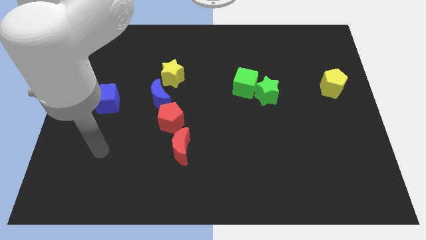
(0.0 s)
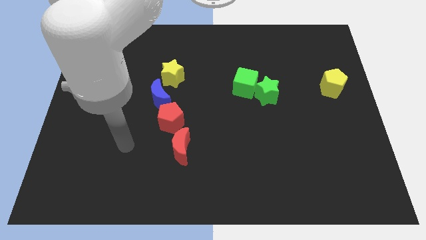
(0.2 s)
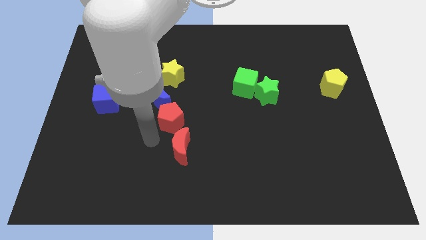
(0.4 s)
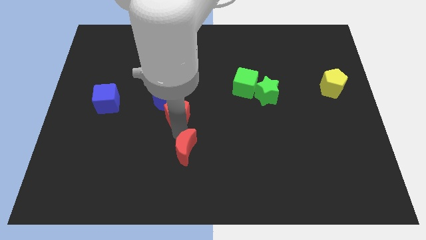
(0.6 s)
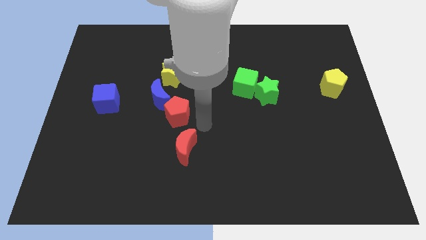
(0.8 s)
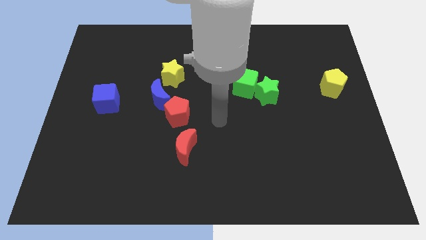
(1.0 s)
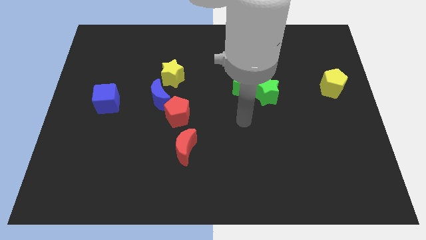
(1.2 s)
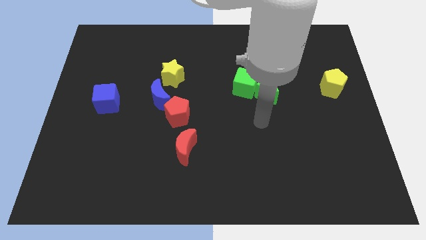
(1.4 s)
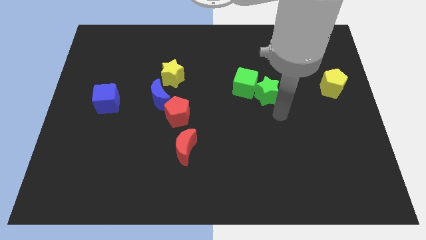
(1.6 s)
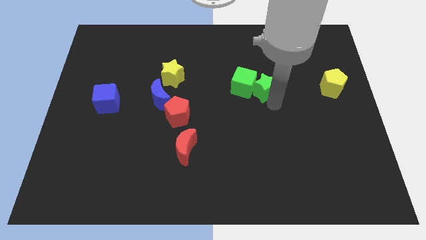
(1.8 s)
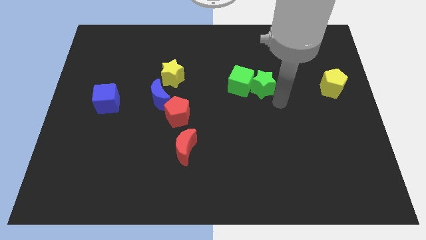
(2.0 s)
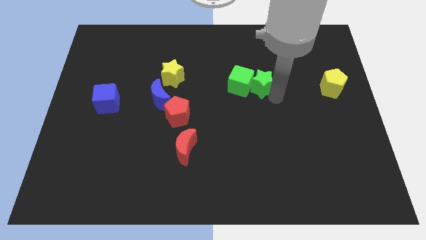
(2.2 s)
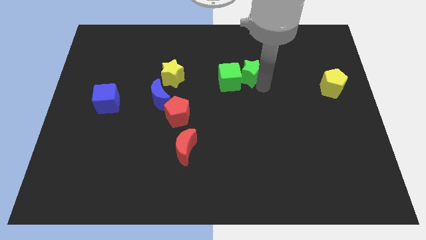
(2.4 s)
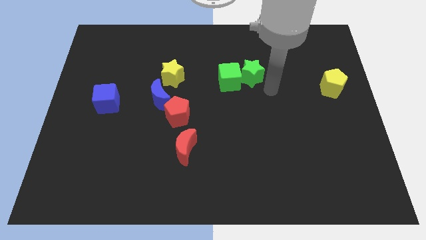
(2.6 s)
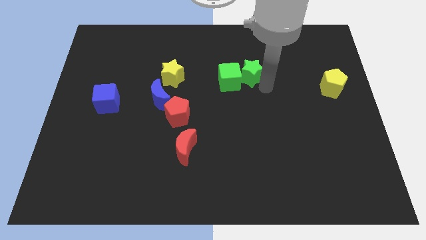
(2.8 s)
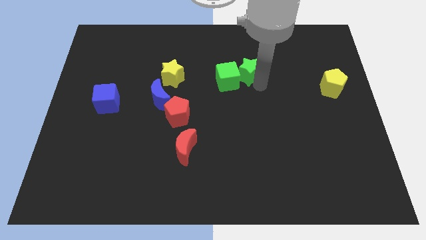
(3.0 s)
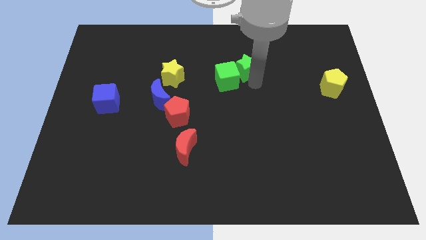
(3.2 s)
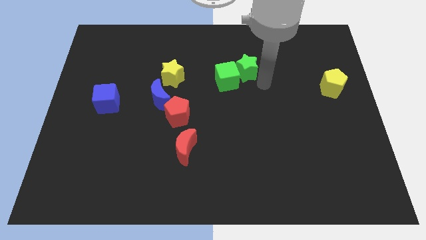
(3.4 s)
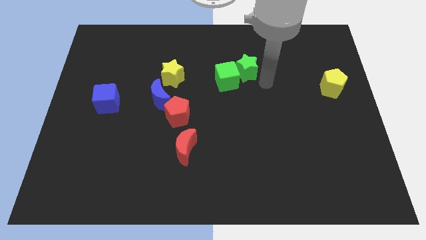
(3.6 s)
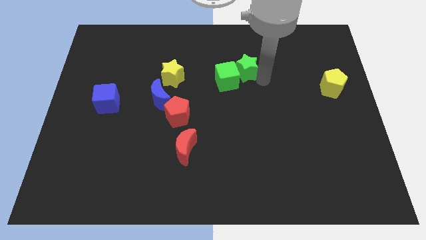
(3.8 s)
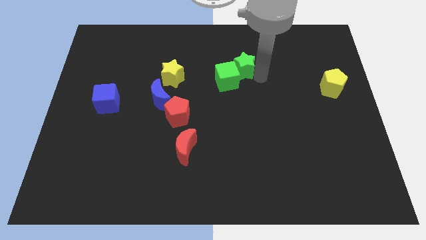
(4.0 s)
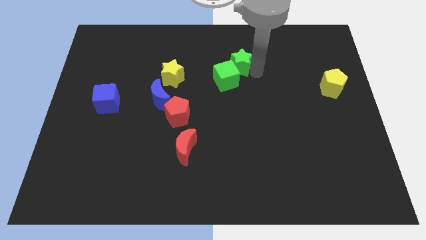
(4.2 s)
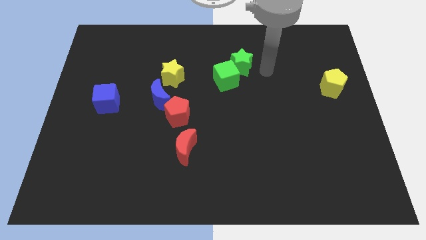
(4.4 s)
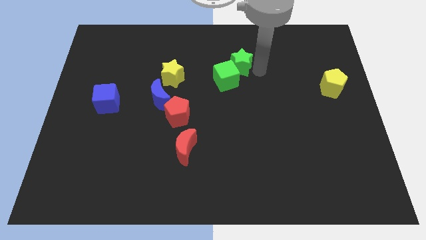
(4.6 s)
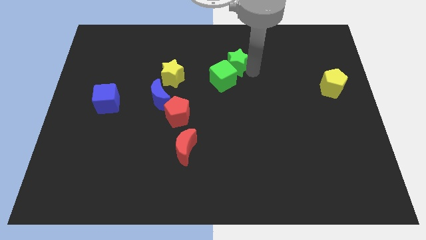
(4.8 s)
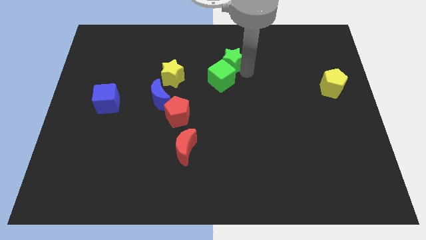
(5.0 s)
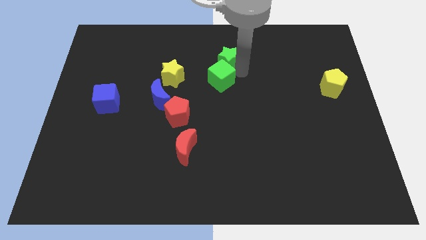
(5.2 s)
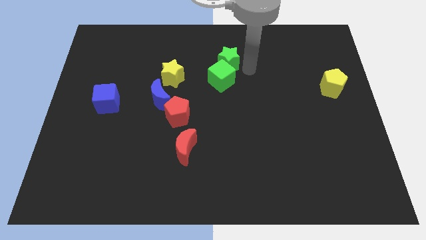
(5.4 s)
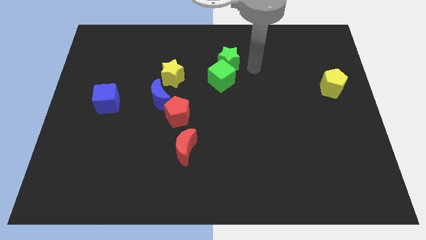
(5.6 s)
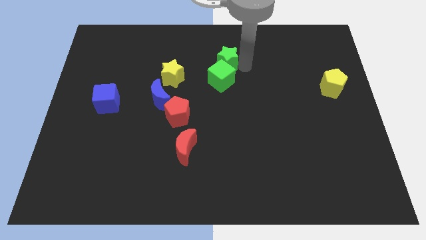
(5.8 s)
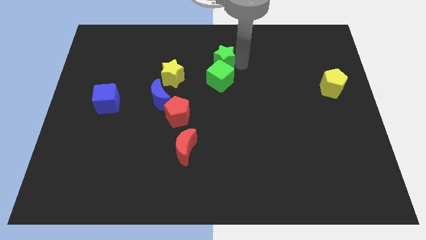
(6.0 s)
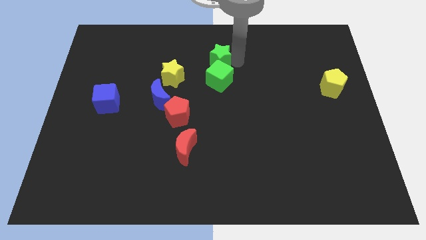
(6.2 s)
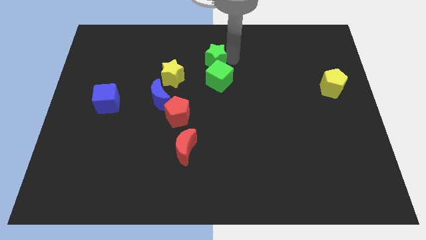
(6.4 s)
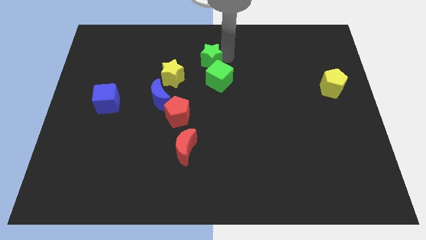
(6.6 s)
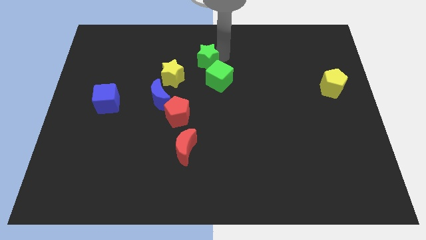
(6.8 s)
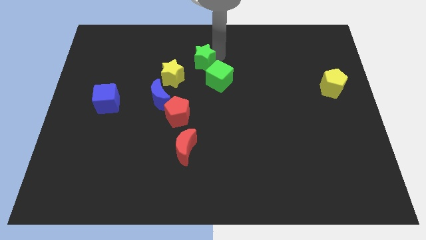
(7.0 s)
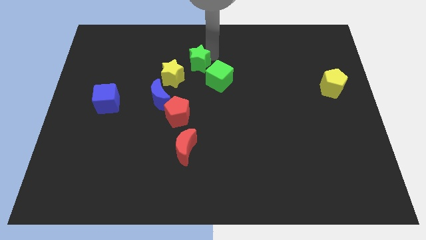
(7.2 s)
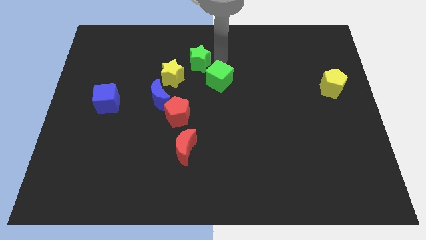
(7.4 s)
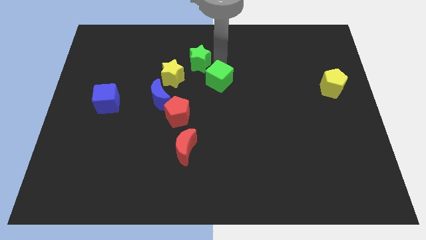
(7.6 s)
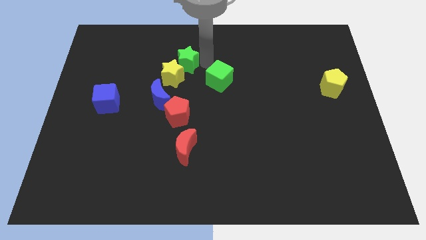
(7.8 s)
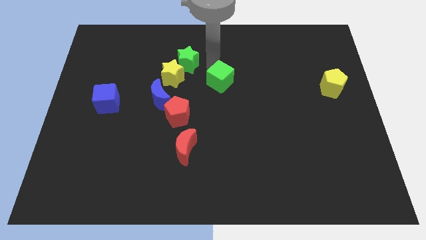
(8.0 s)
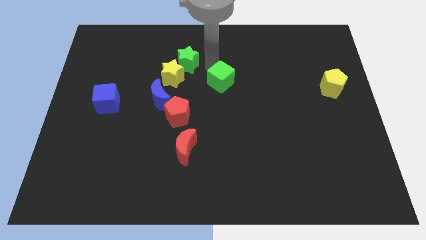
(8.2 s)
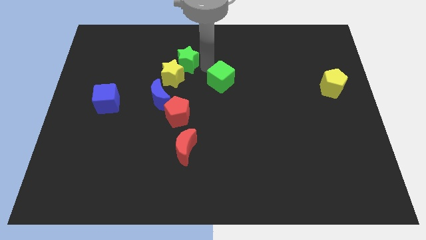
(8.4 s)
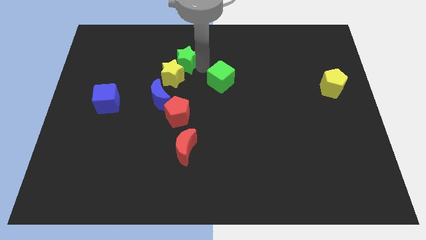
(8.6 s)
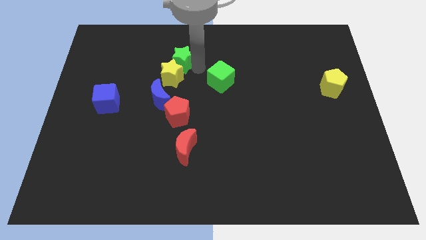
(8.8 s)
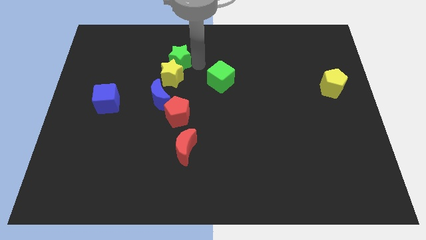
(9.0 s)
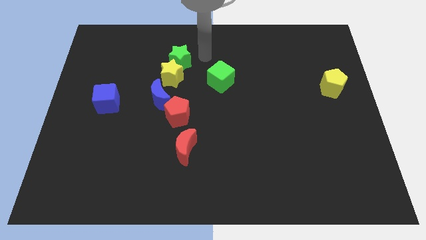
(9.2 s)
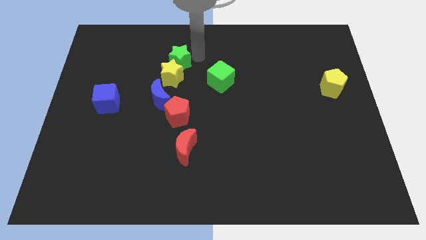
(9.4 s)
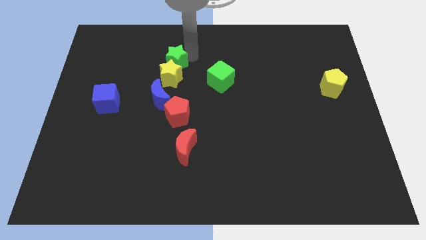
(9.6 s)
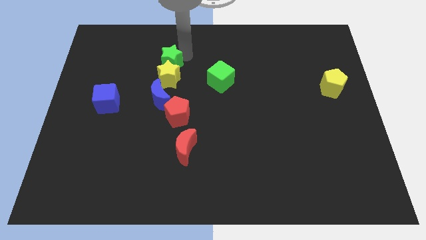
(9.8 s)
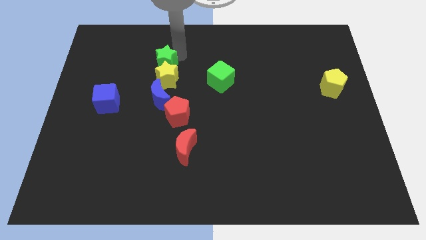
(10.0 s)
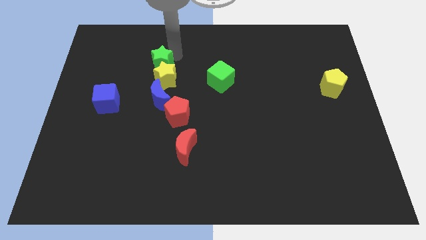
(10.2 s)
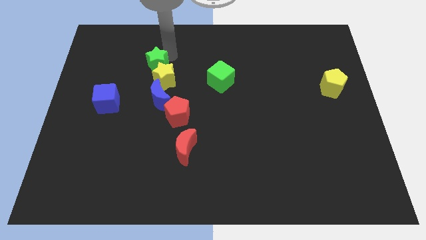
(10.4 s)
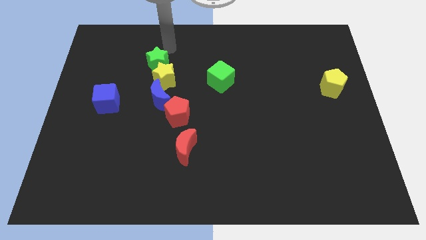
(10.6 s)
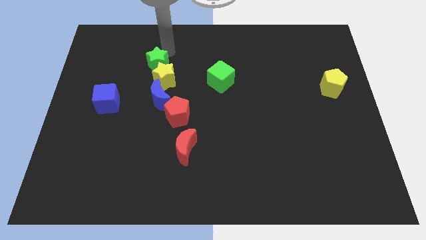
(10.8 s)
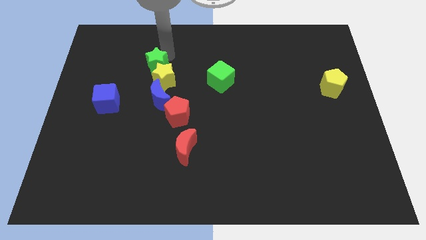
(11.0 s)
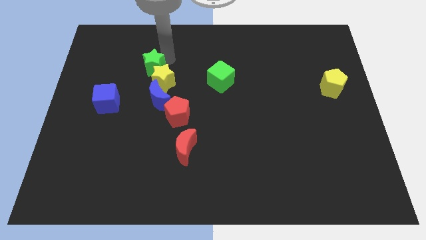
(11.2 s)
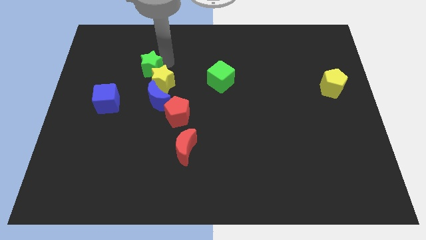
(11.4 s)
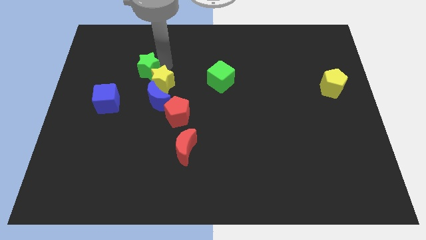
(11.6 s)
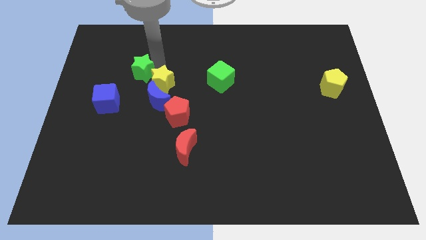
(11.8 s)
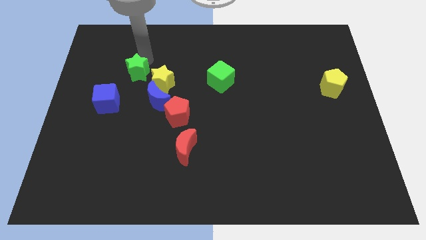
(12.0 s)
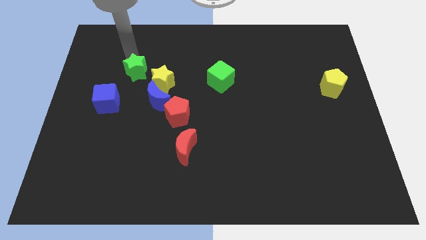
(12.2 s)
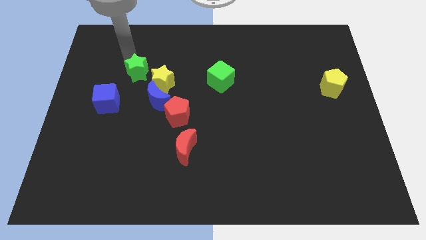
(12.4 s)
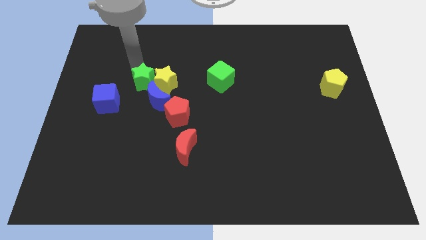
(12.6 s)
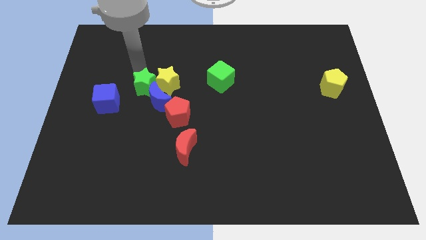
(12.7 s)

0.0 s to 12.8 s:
push the green star diagonally up and to the left of the red pentagon

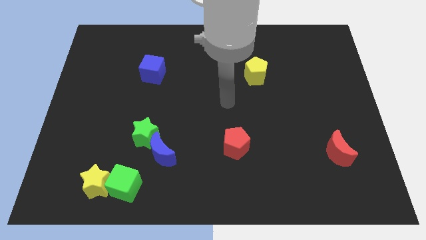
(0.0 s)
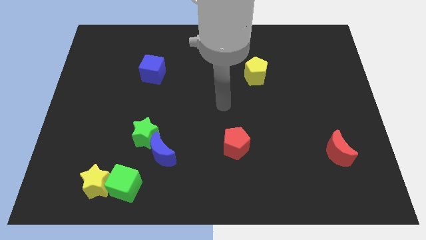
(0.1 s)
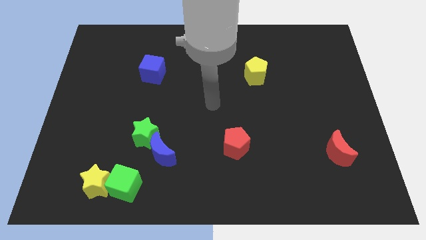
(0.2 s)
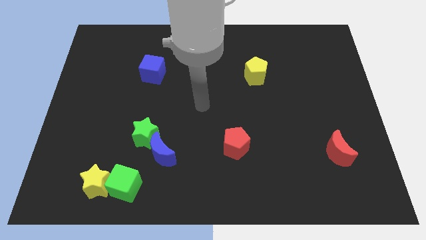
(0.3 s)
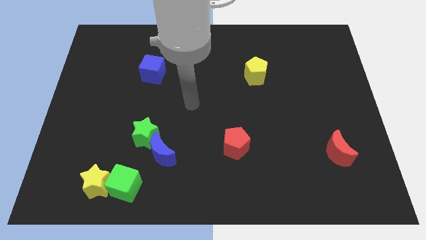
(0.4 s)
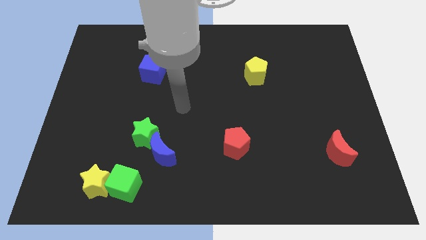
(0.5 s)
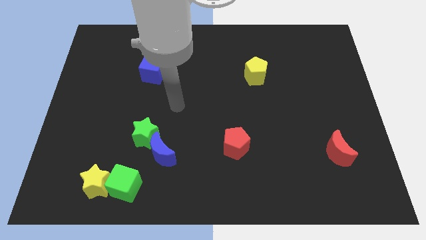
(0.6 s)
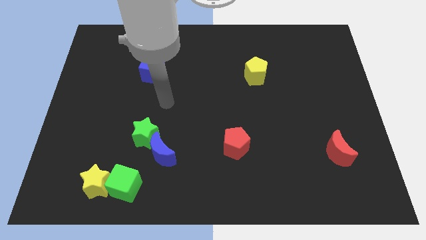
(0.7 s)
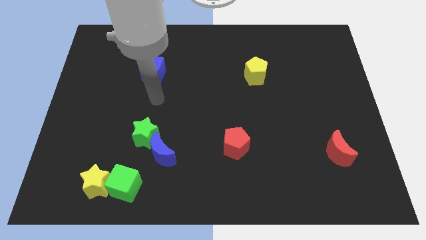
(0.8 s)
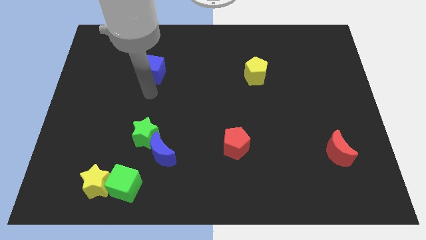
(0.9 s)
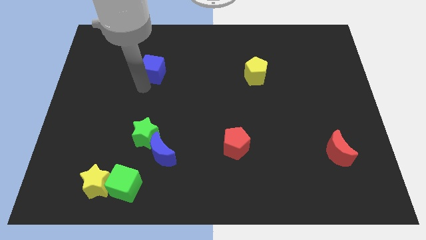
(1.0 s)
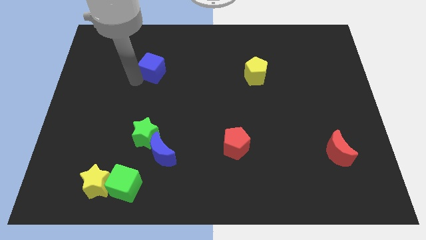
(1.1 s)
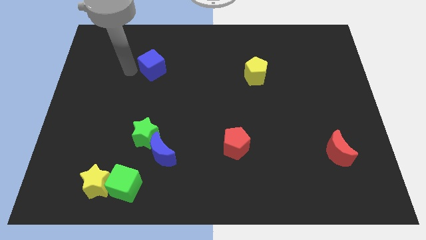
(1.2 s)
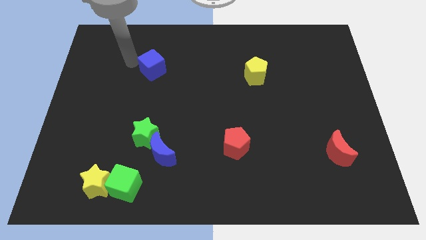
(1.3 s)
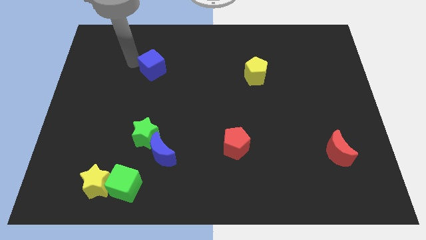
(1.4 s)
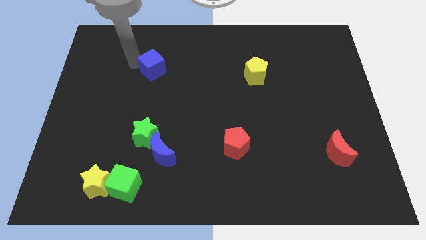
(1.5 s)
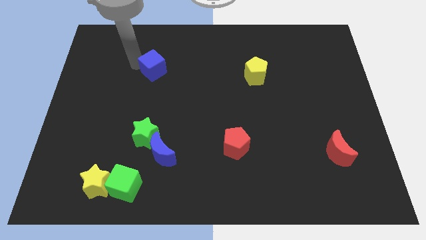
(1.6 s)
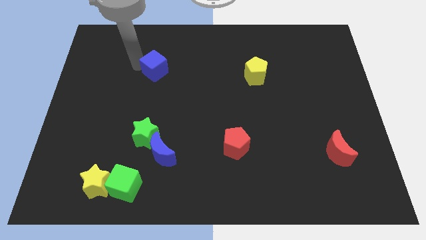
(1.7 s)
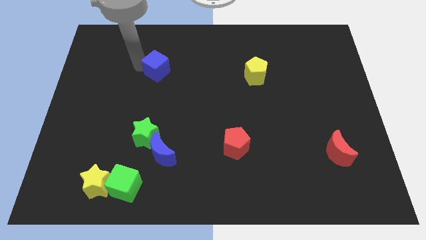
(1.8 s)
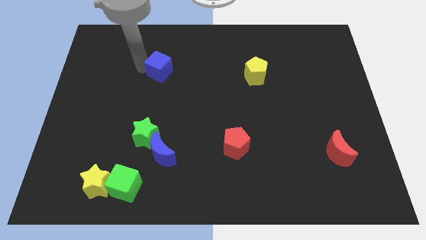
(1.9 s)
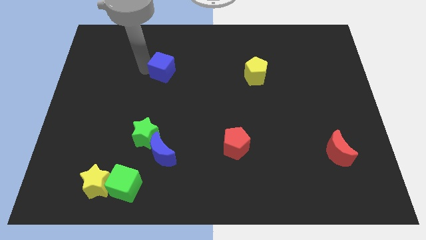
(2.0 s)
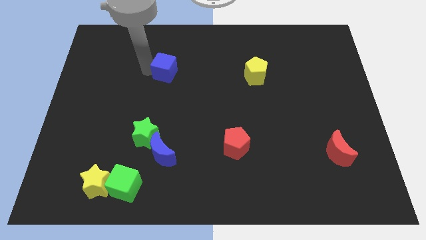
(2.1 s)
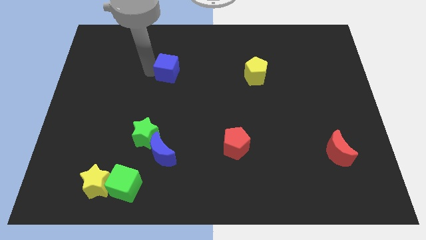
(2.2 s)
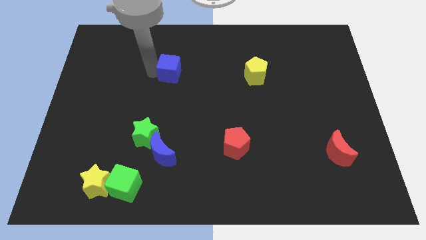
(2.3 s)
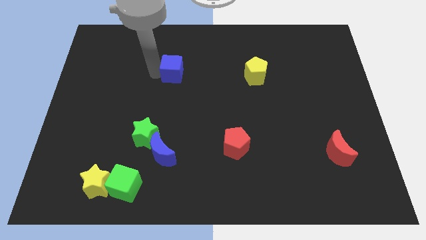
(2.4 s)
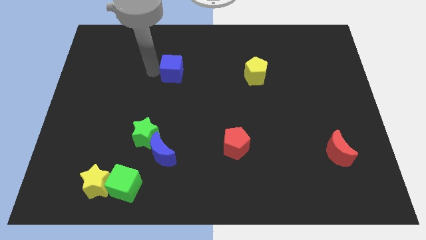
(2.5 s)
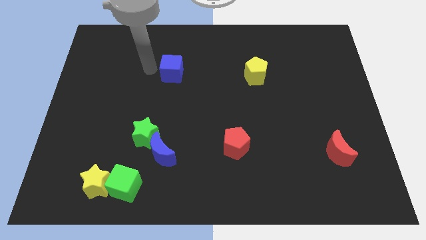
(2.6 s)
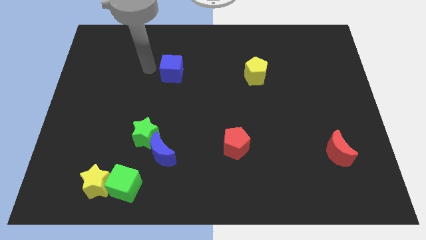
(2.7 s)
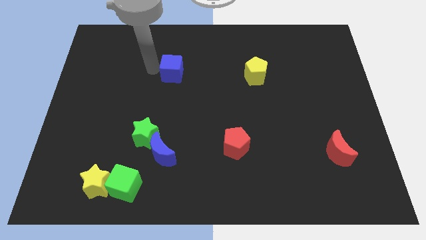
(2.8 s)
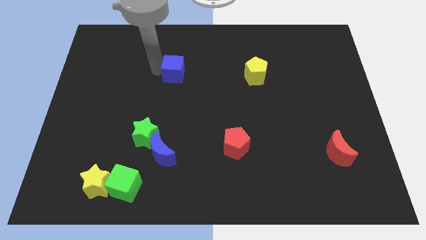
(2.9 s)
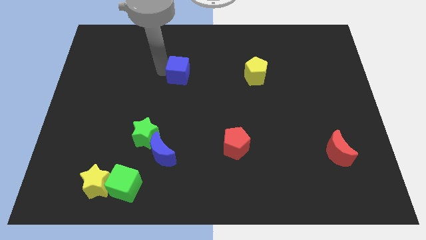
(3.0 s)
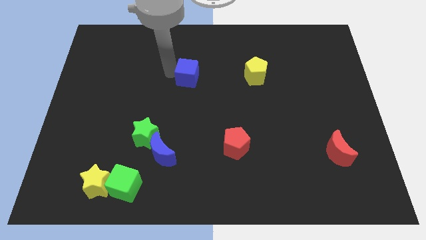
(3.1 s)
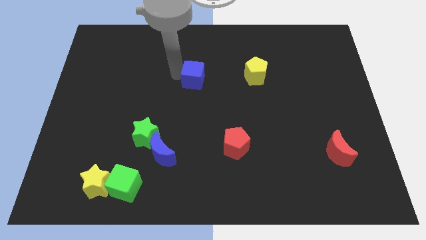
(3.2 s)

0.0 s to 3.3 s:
move the blue cube to the left of the yellow pentagon
